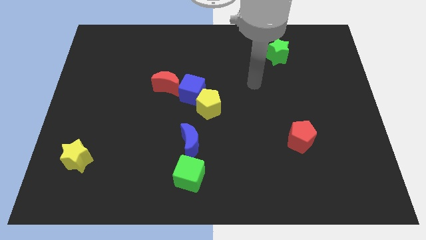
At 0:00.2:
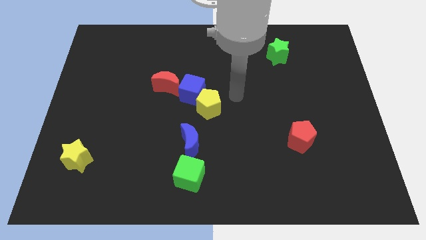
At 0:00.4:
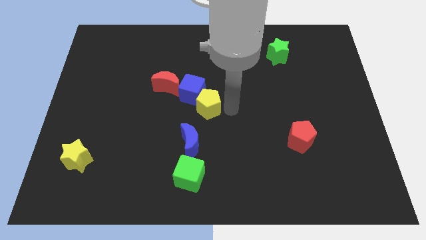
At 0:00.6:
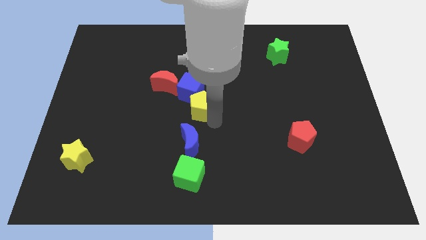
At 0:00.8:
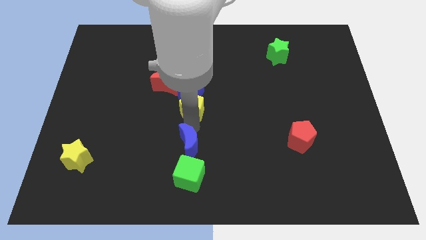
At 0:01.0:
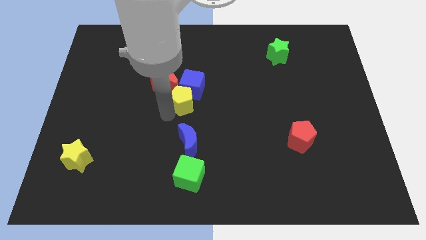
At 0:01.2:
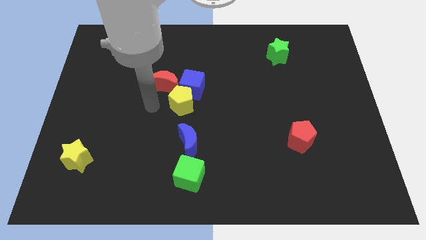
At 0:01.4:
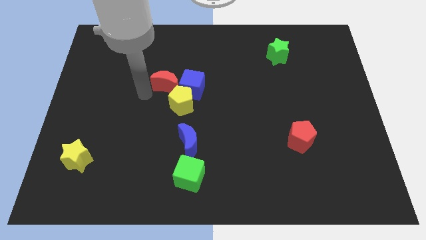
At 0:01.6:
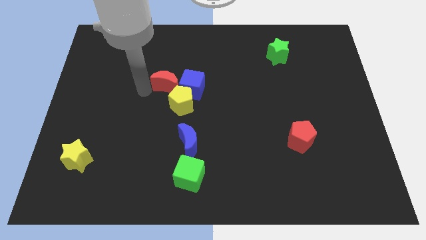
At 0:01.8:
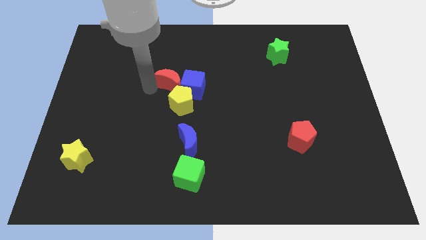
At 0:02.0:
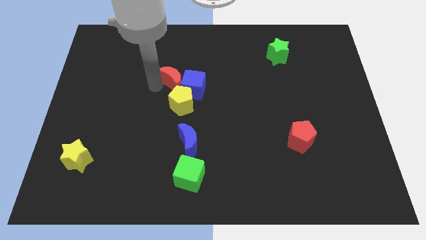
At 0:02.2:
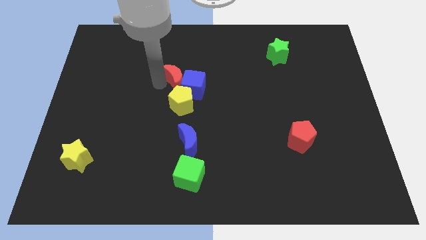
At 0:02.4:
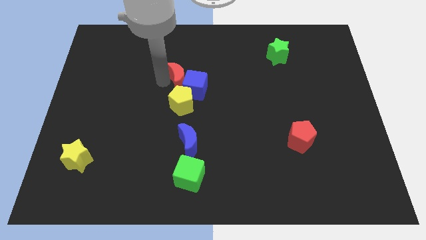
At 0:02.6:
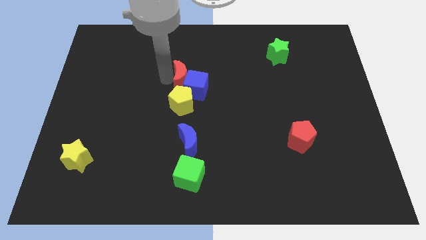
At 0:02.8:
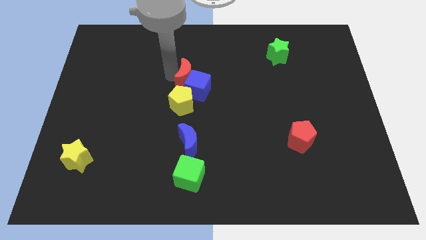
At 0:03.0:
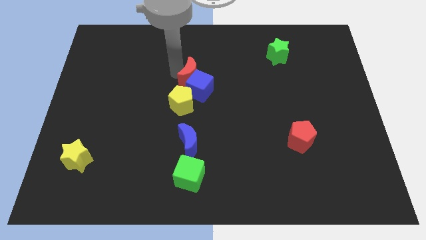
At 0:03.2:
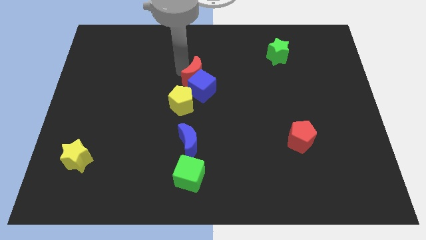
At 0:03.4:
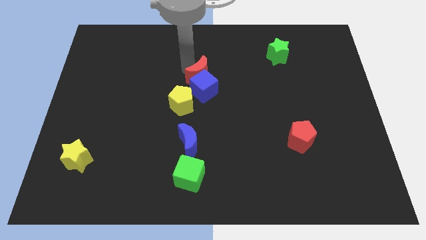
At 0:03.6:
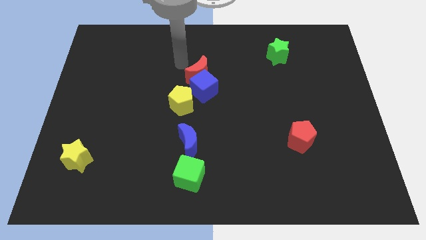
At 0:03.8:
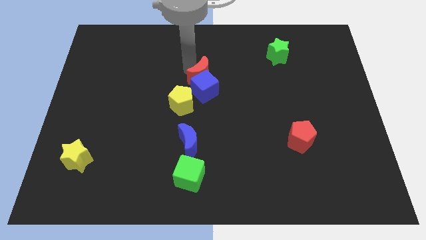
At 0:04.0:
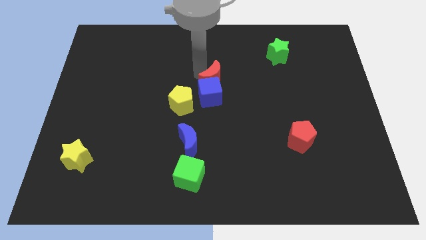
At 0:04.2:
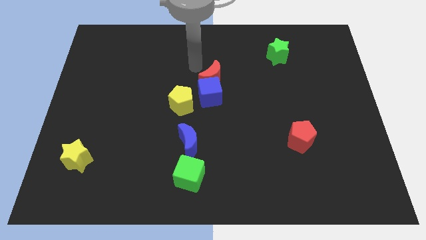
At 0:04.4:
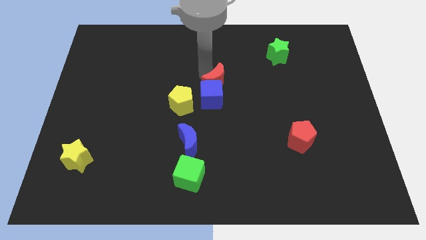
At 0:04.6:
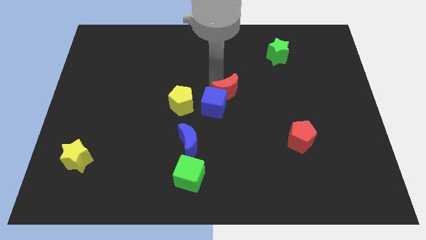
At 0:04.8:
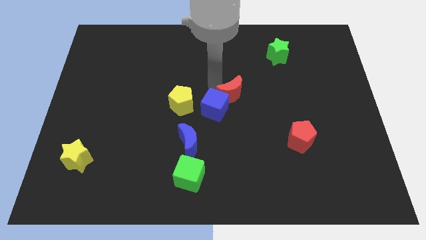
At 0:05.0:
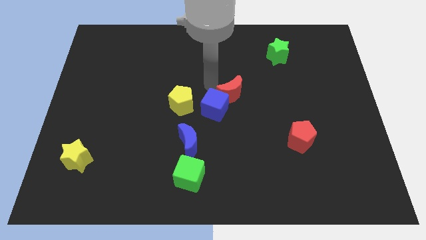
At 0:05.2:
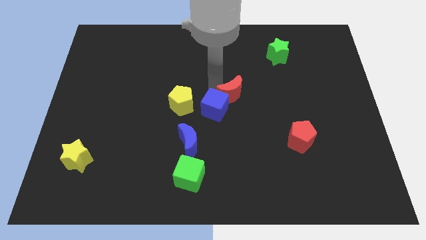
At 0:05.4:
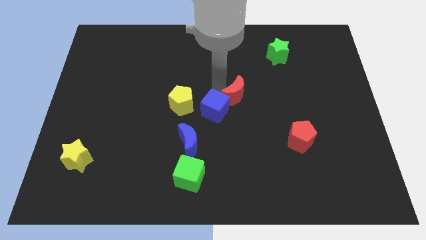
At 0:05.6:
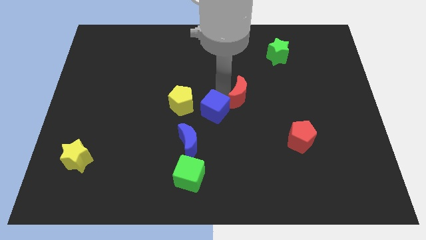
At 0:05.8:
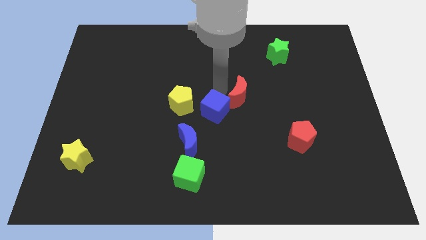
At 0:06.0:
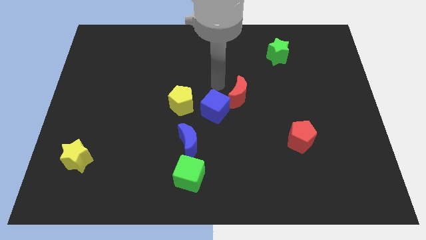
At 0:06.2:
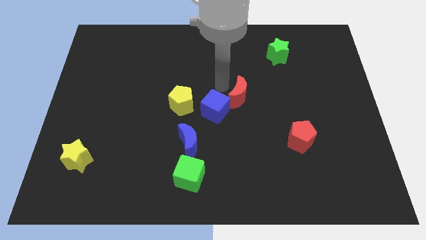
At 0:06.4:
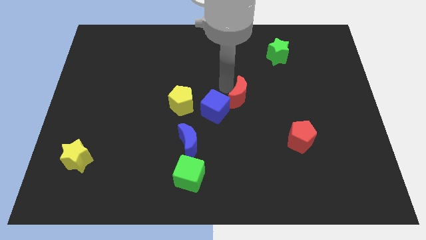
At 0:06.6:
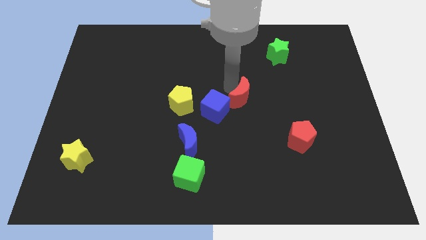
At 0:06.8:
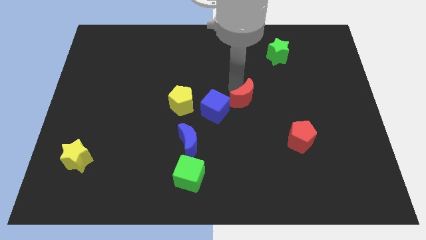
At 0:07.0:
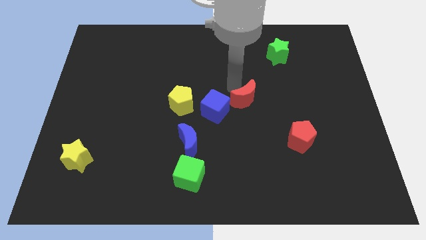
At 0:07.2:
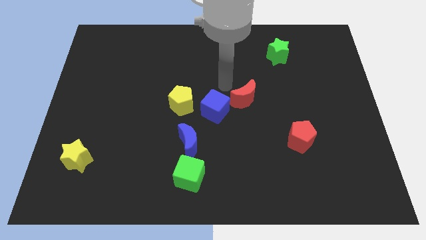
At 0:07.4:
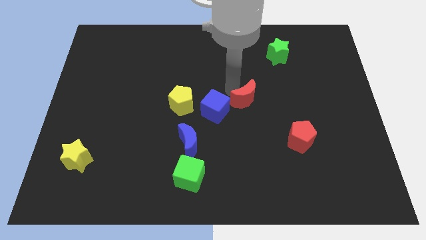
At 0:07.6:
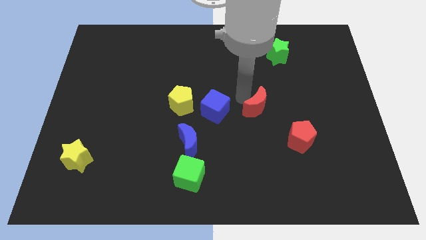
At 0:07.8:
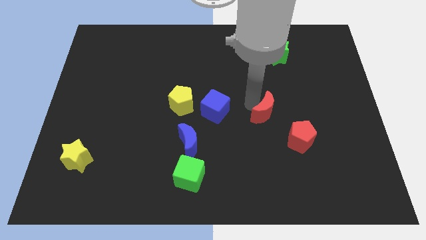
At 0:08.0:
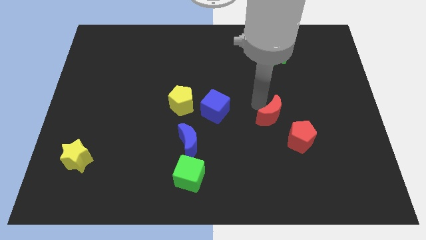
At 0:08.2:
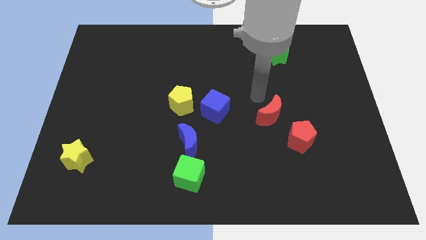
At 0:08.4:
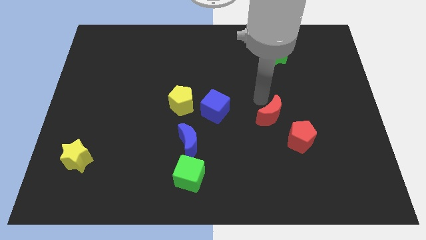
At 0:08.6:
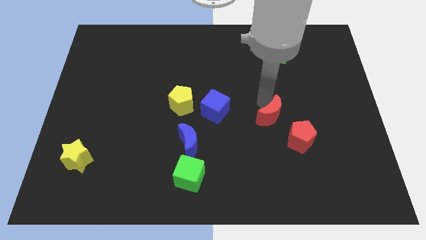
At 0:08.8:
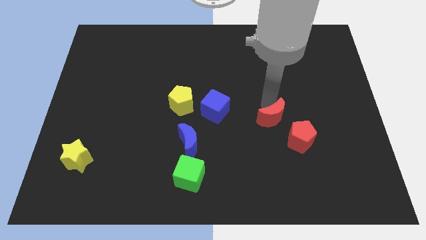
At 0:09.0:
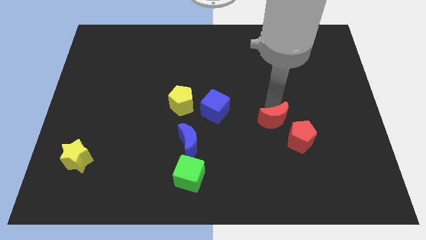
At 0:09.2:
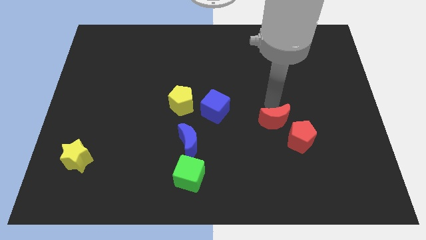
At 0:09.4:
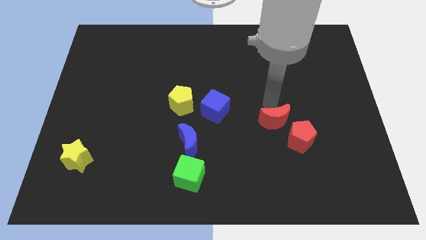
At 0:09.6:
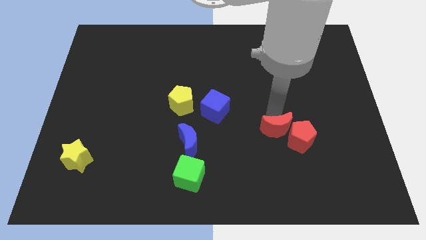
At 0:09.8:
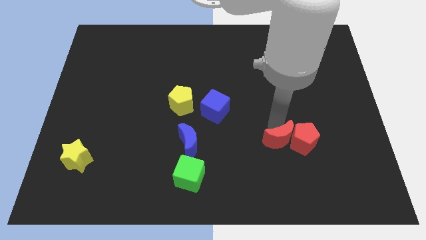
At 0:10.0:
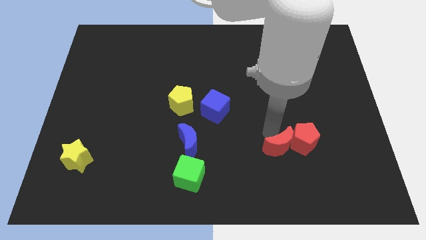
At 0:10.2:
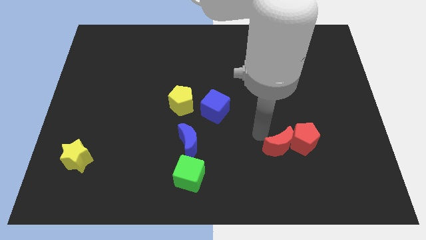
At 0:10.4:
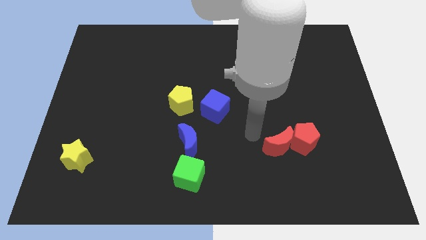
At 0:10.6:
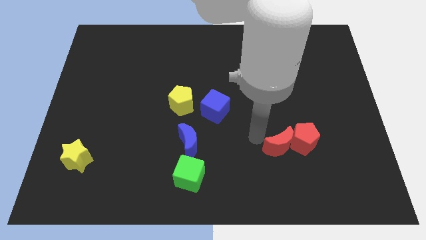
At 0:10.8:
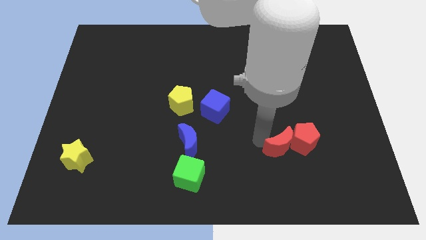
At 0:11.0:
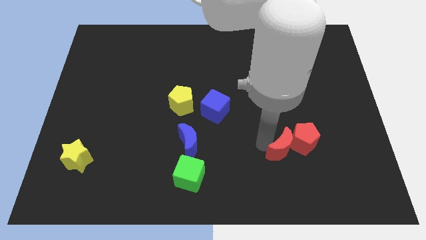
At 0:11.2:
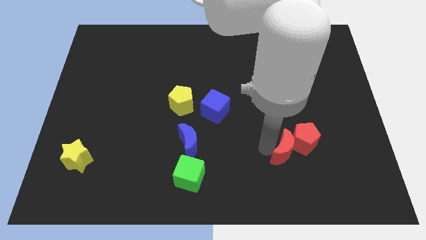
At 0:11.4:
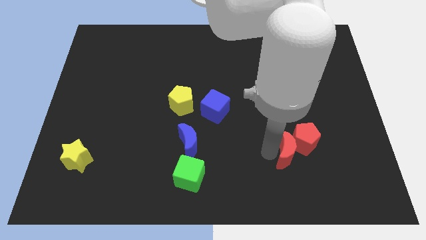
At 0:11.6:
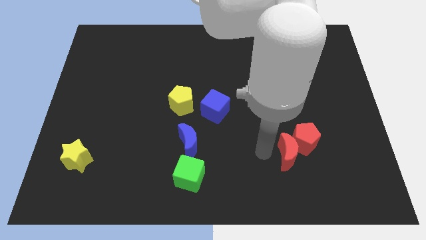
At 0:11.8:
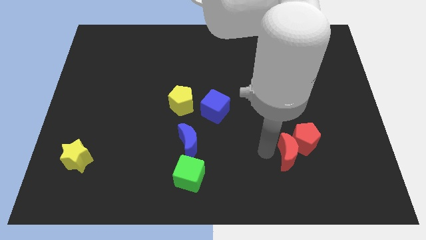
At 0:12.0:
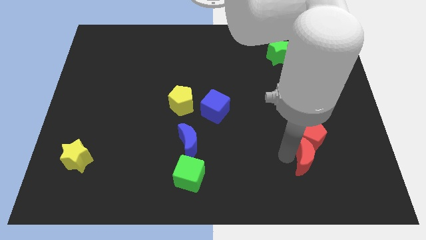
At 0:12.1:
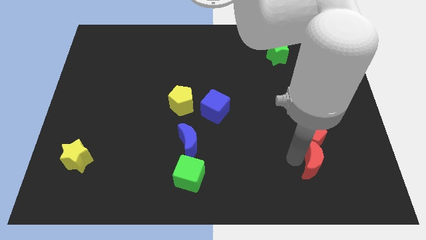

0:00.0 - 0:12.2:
put the red moon to the bottom right side of the red pentagon
